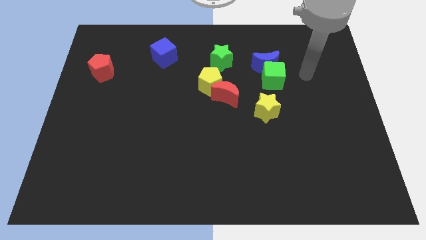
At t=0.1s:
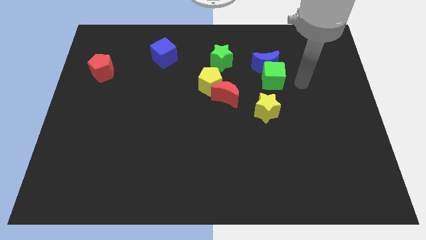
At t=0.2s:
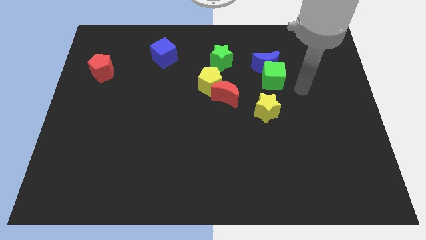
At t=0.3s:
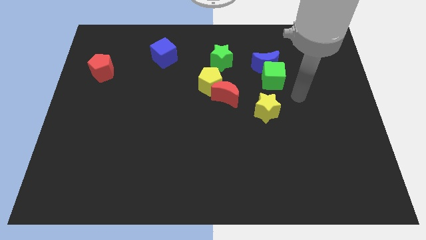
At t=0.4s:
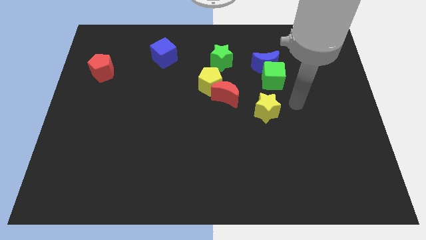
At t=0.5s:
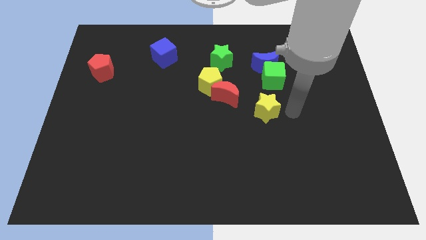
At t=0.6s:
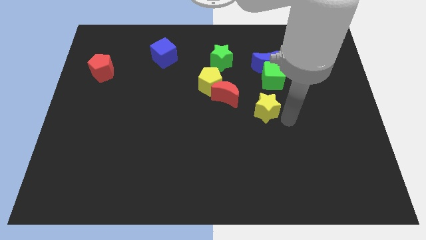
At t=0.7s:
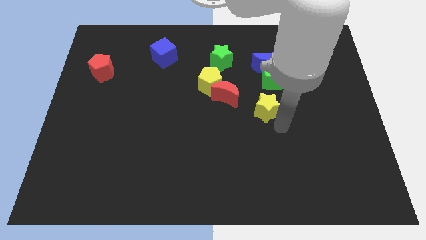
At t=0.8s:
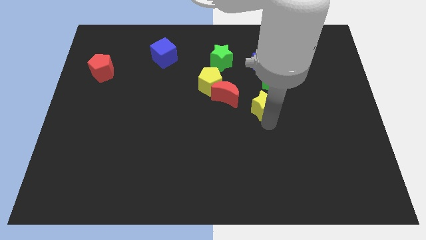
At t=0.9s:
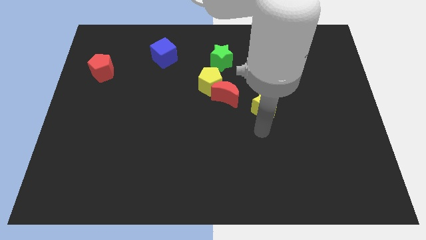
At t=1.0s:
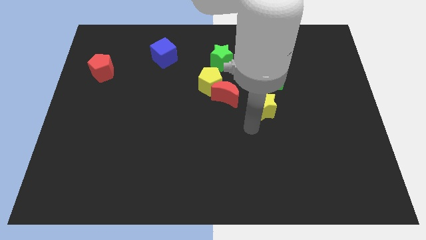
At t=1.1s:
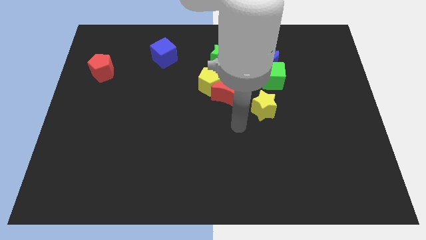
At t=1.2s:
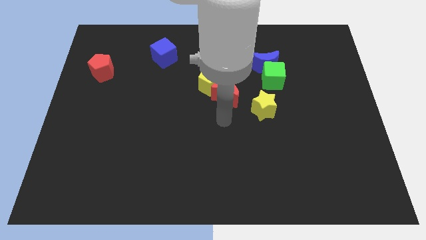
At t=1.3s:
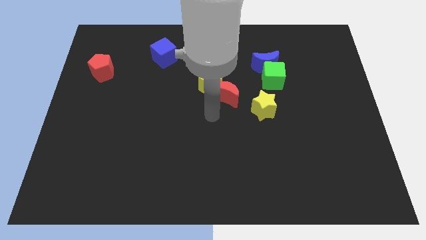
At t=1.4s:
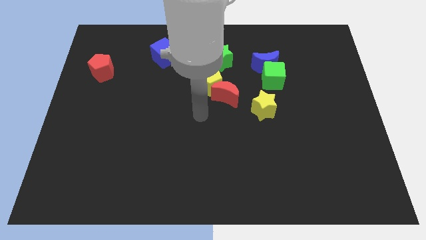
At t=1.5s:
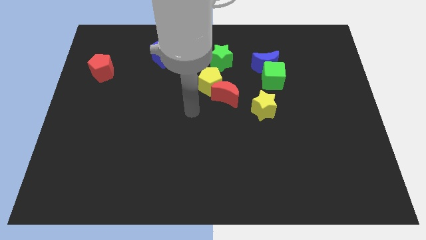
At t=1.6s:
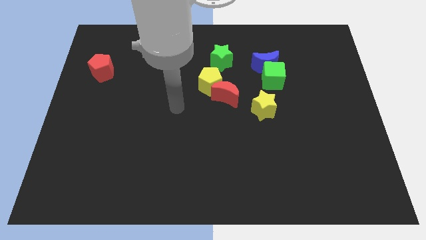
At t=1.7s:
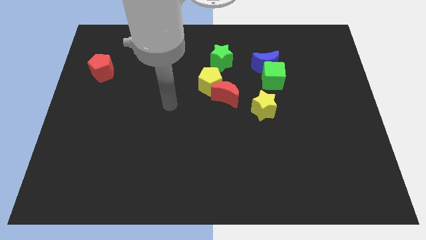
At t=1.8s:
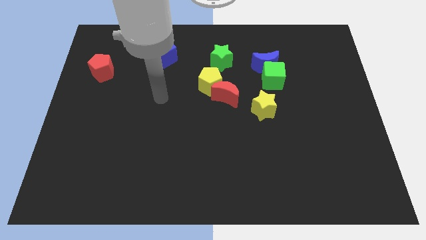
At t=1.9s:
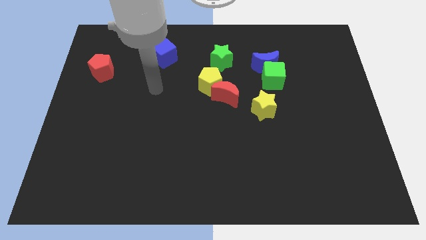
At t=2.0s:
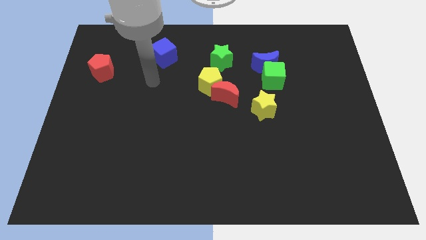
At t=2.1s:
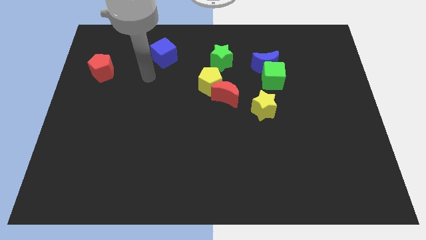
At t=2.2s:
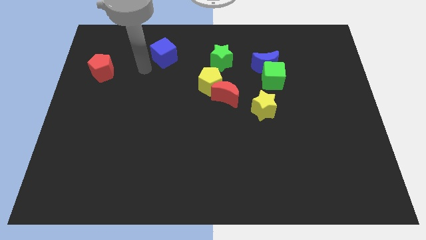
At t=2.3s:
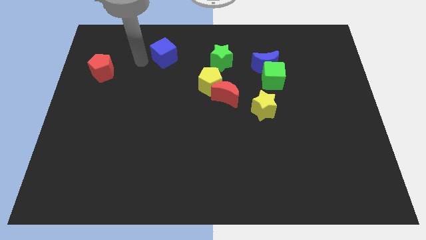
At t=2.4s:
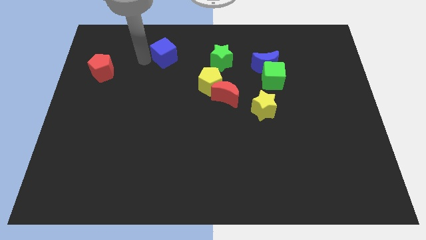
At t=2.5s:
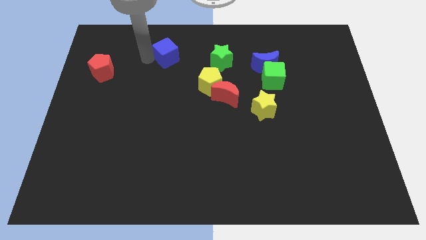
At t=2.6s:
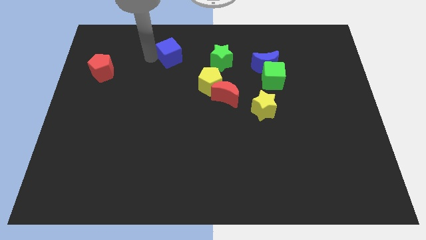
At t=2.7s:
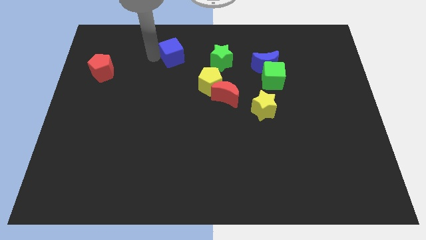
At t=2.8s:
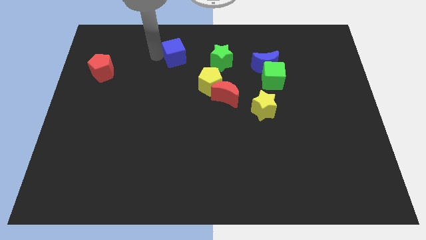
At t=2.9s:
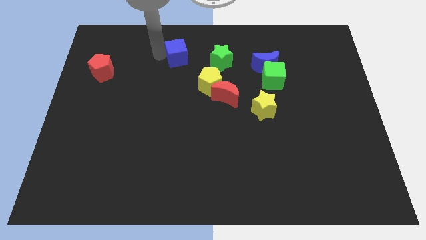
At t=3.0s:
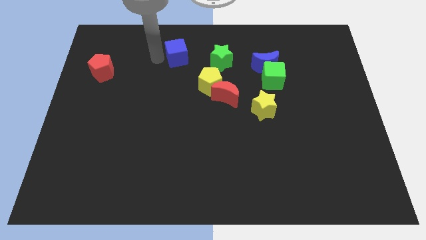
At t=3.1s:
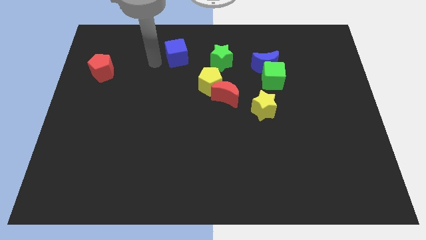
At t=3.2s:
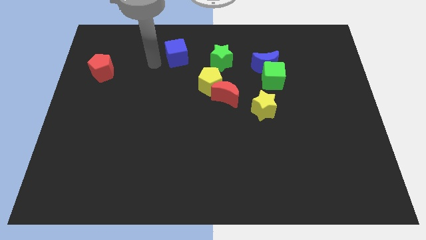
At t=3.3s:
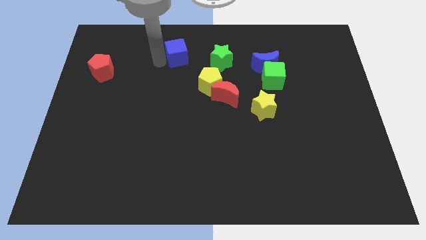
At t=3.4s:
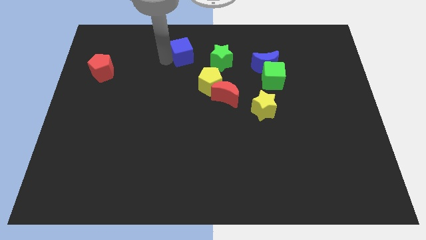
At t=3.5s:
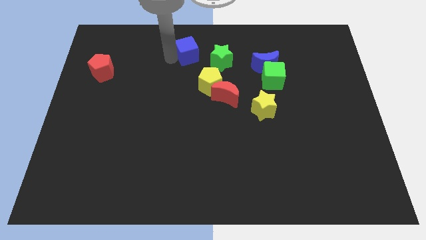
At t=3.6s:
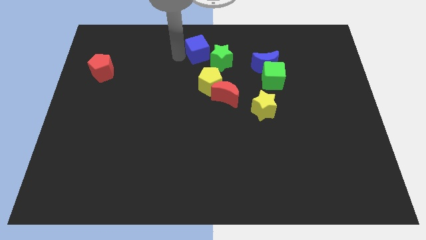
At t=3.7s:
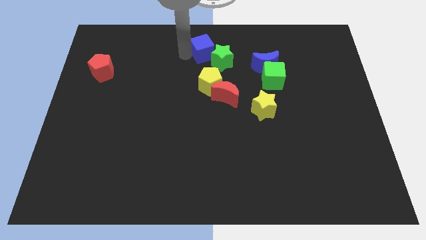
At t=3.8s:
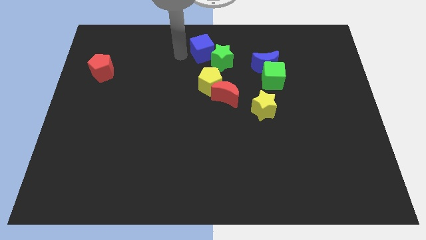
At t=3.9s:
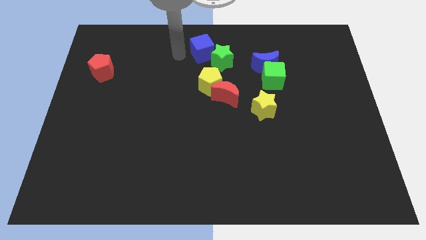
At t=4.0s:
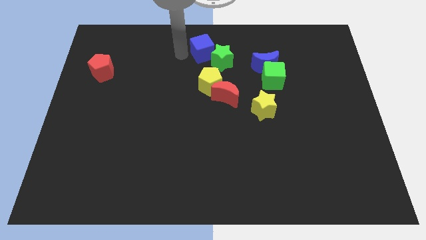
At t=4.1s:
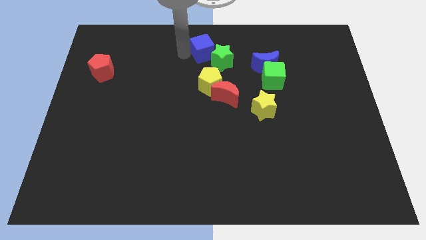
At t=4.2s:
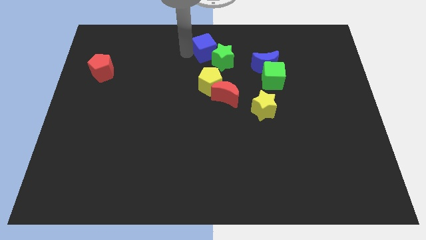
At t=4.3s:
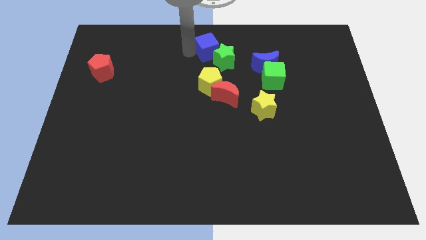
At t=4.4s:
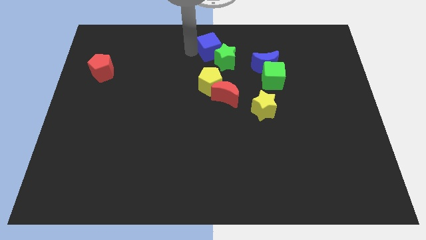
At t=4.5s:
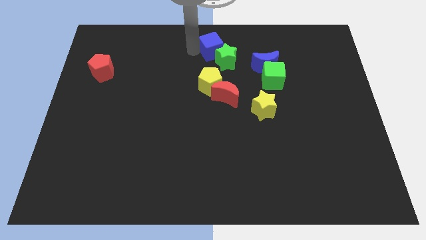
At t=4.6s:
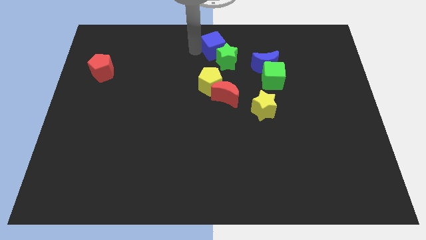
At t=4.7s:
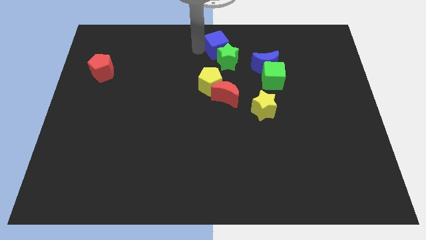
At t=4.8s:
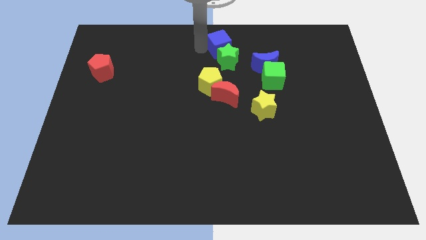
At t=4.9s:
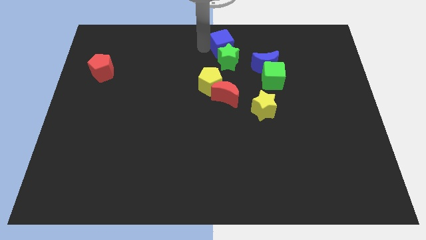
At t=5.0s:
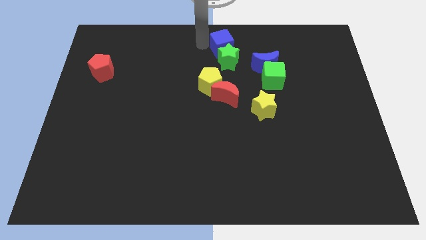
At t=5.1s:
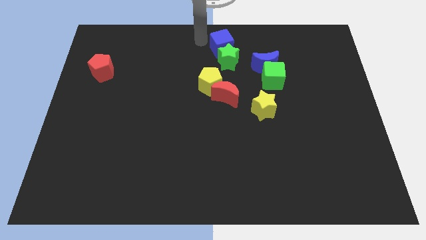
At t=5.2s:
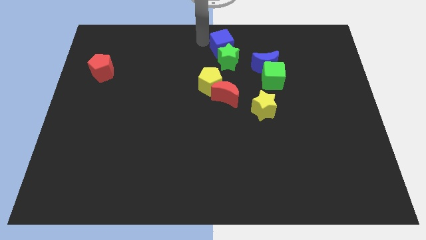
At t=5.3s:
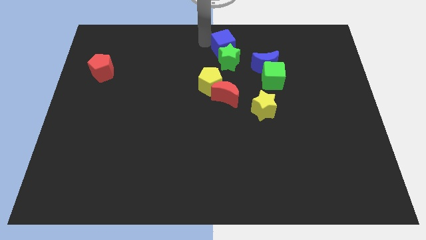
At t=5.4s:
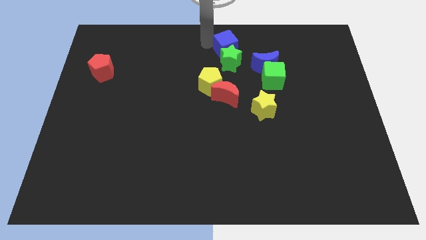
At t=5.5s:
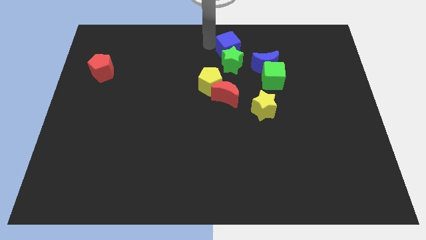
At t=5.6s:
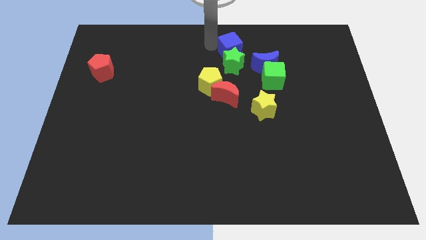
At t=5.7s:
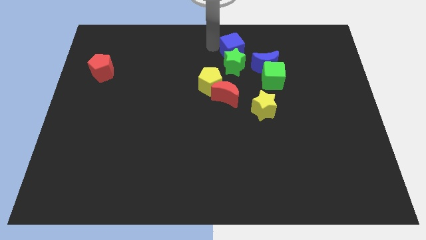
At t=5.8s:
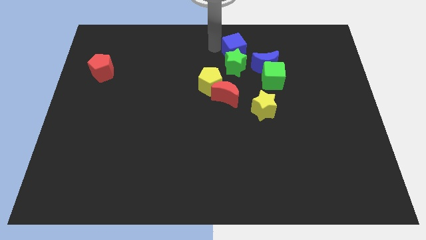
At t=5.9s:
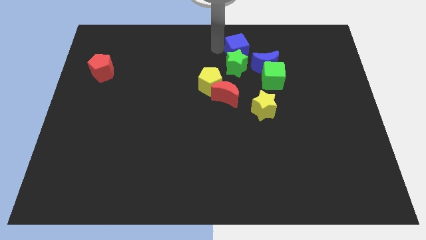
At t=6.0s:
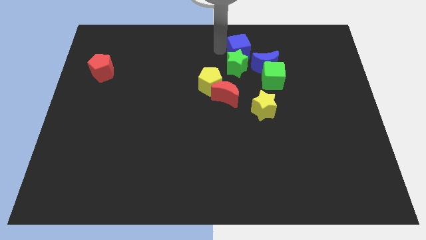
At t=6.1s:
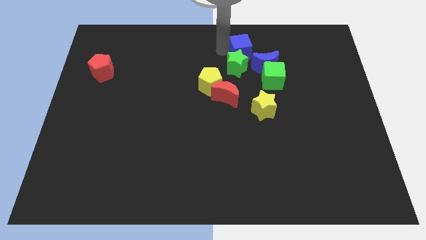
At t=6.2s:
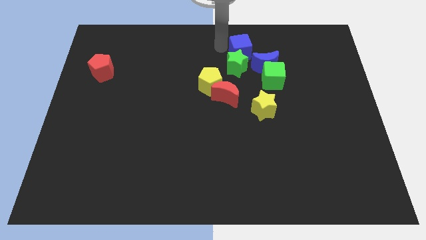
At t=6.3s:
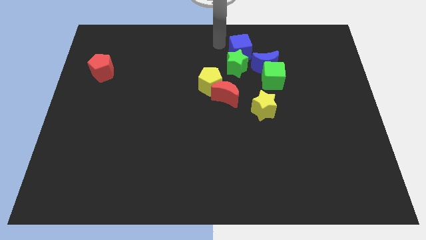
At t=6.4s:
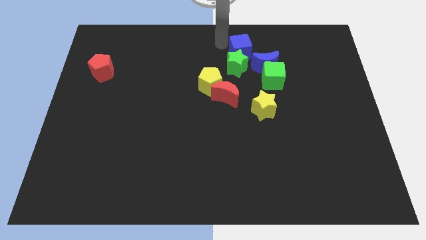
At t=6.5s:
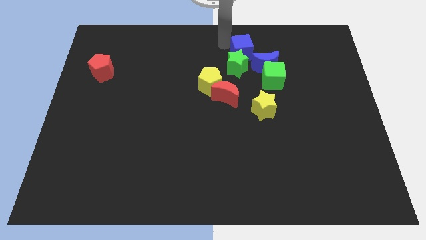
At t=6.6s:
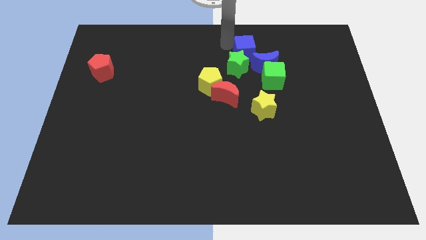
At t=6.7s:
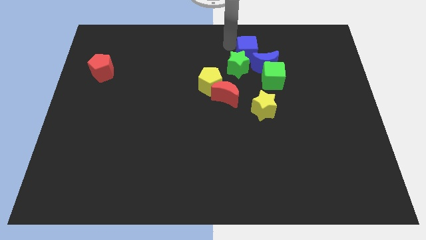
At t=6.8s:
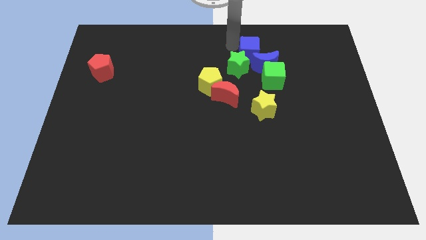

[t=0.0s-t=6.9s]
push the blue cube towards the blue moon
